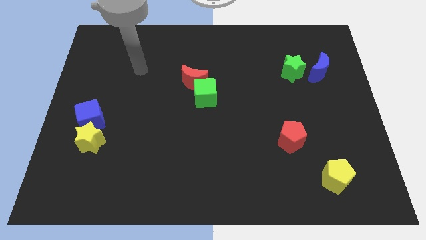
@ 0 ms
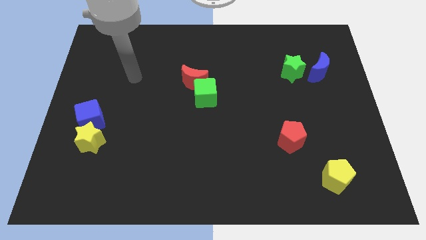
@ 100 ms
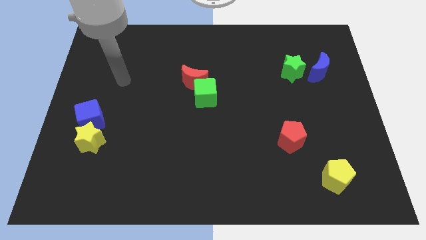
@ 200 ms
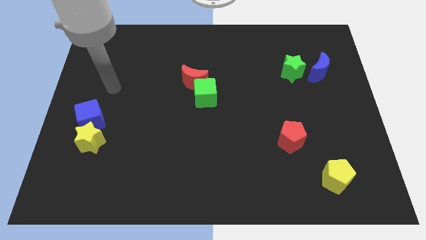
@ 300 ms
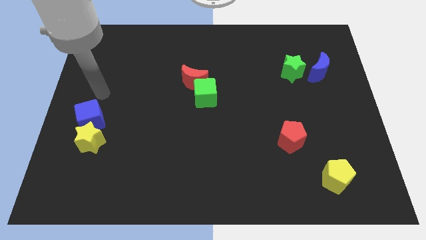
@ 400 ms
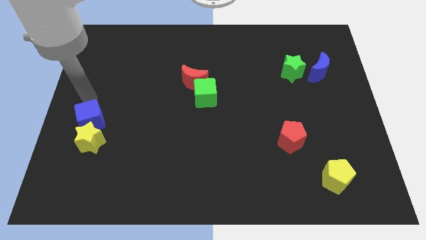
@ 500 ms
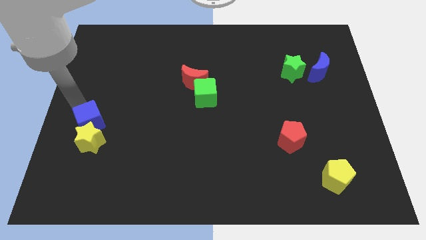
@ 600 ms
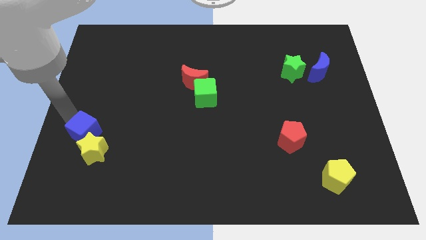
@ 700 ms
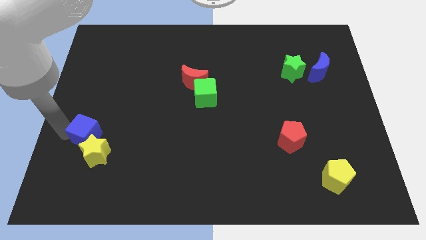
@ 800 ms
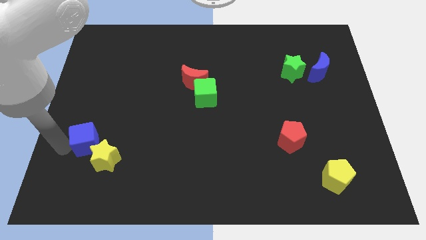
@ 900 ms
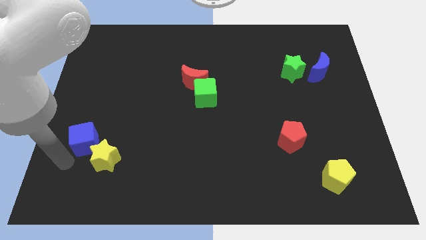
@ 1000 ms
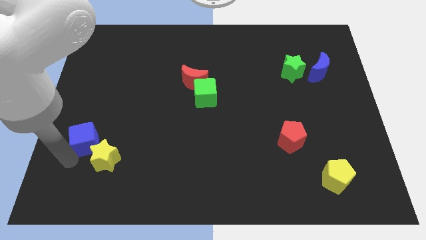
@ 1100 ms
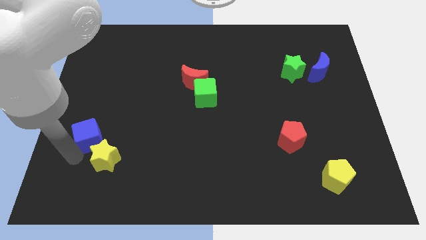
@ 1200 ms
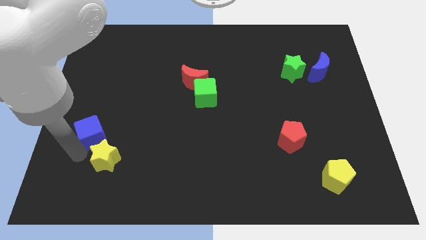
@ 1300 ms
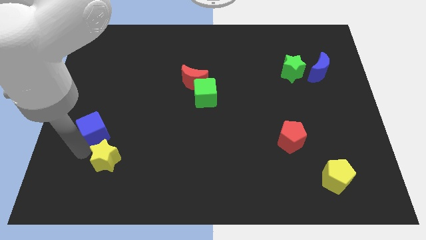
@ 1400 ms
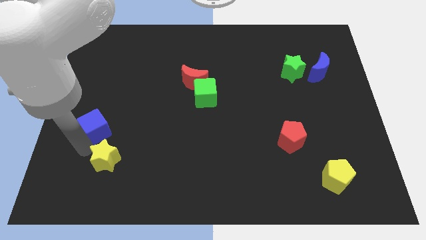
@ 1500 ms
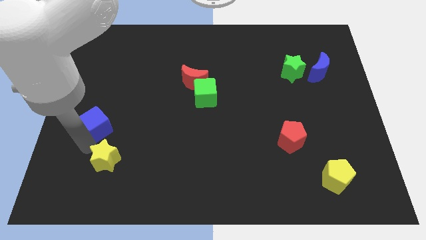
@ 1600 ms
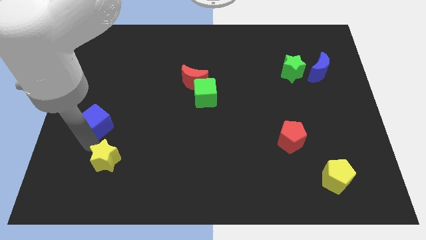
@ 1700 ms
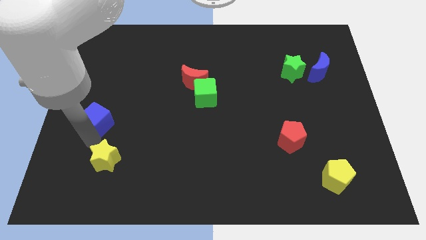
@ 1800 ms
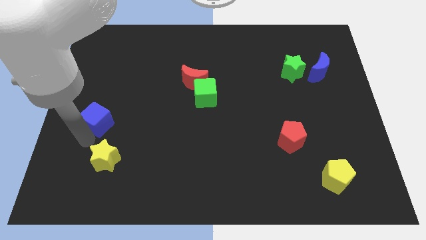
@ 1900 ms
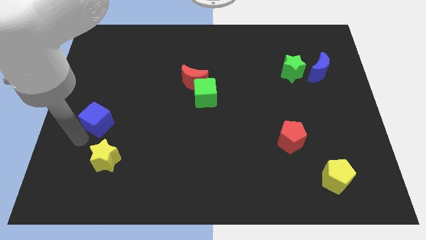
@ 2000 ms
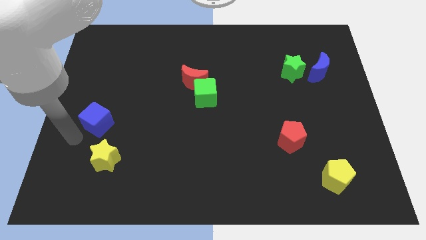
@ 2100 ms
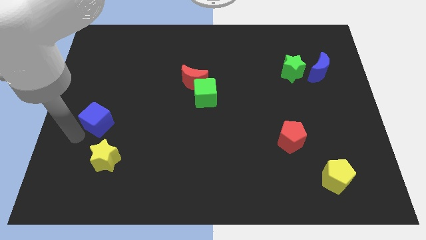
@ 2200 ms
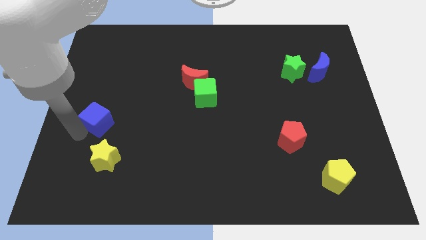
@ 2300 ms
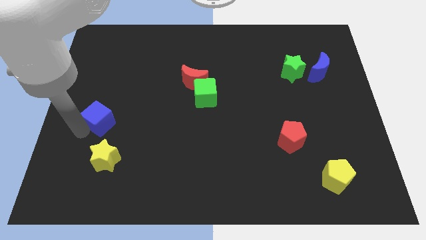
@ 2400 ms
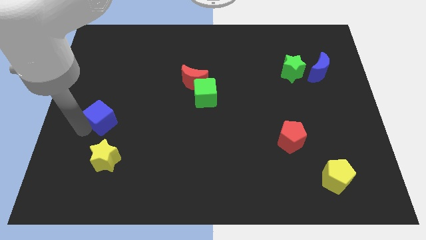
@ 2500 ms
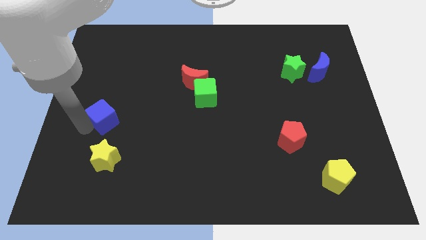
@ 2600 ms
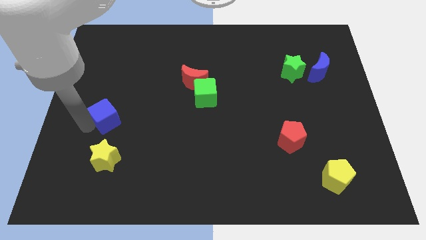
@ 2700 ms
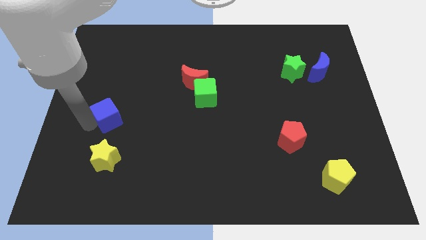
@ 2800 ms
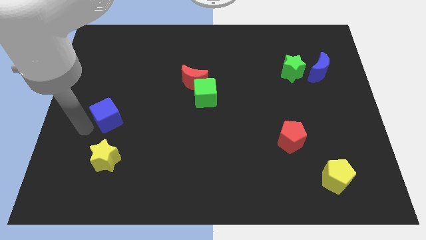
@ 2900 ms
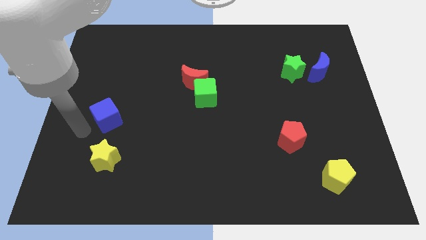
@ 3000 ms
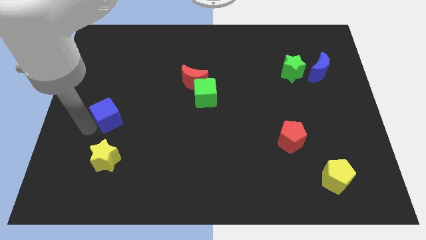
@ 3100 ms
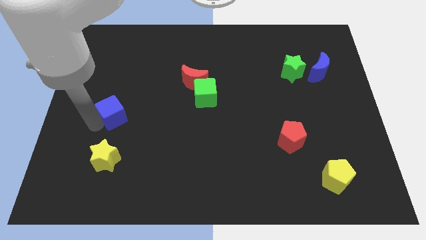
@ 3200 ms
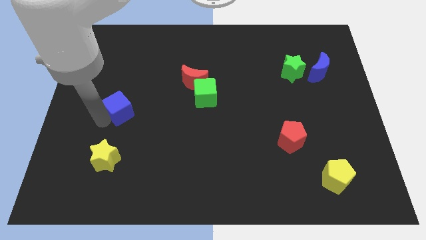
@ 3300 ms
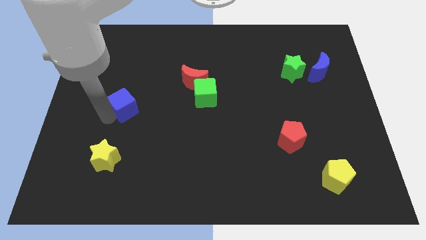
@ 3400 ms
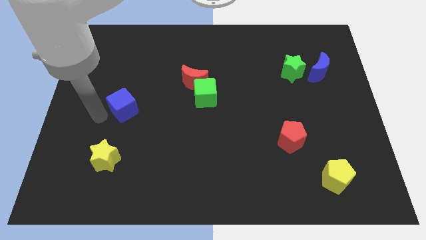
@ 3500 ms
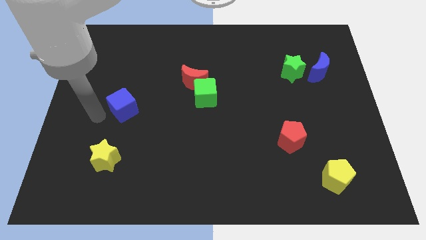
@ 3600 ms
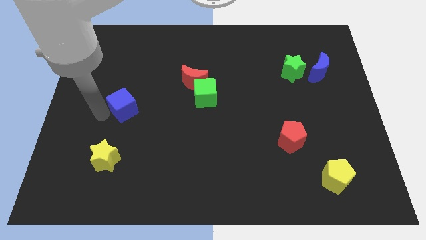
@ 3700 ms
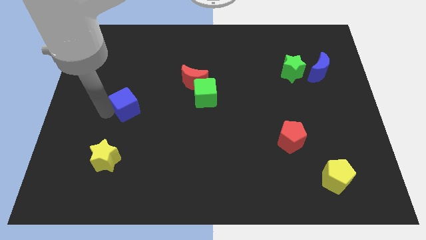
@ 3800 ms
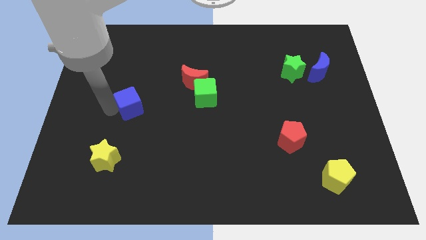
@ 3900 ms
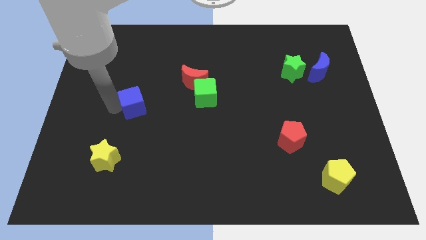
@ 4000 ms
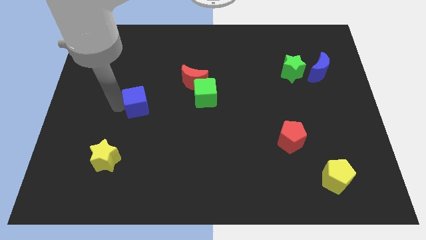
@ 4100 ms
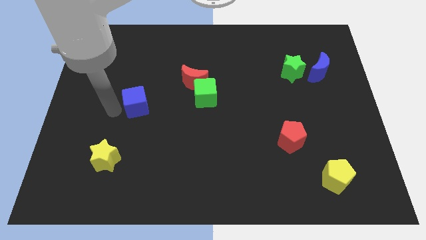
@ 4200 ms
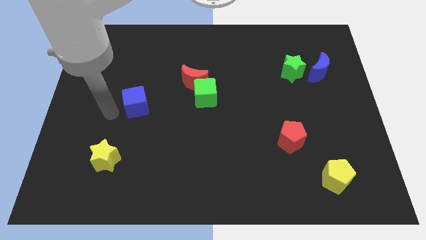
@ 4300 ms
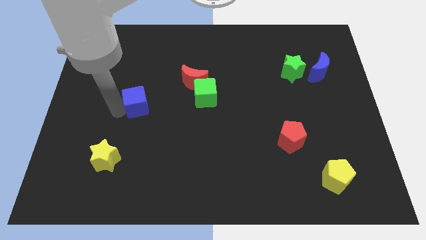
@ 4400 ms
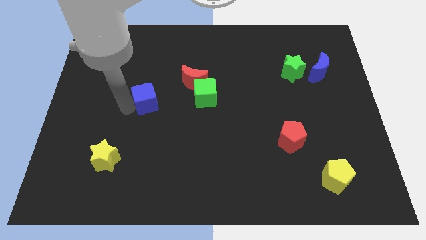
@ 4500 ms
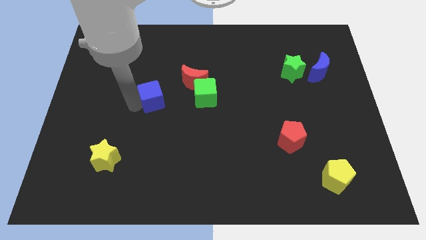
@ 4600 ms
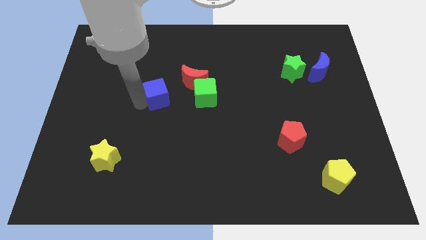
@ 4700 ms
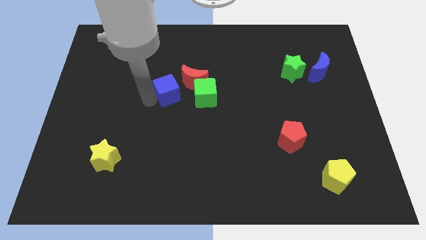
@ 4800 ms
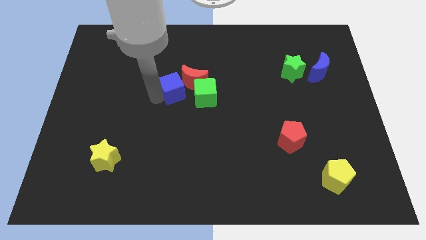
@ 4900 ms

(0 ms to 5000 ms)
move the blue cube close to the red moon

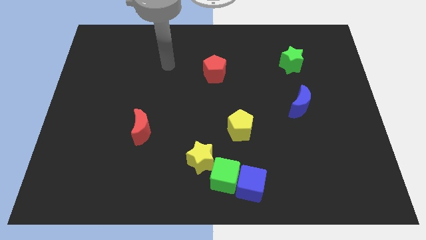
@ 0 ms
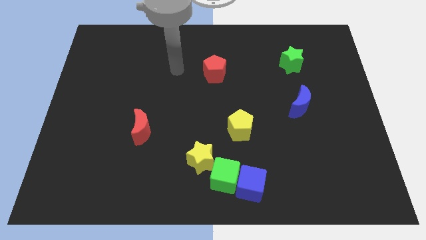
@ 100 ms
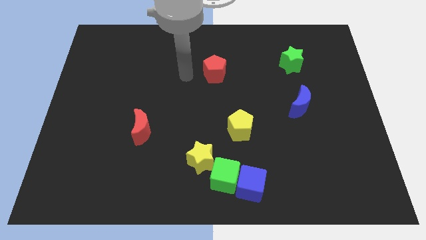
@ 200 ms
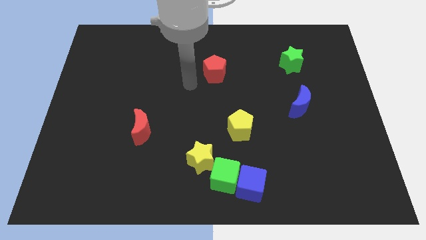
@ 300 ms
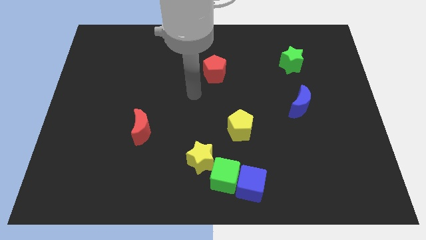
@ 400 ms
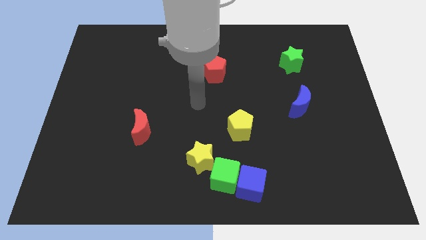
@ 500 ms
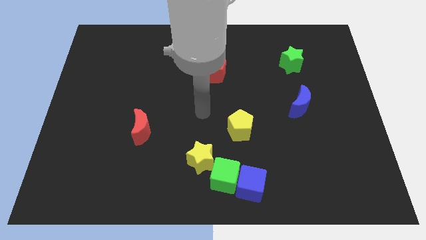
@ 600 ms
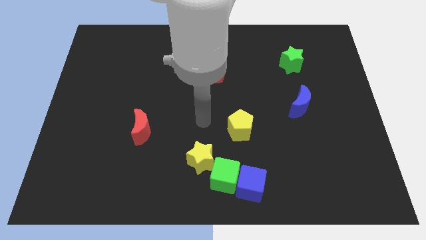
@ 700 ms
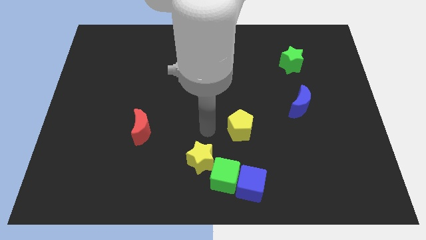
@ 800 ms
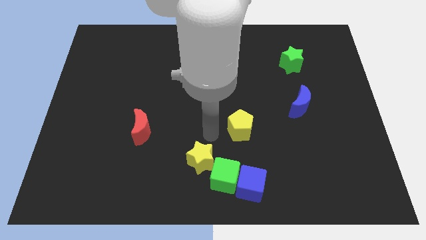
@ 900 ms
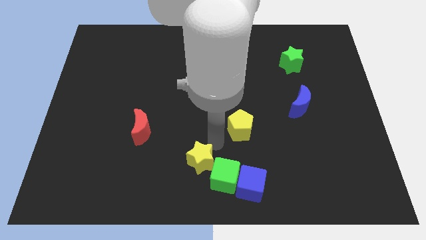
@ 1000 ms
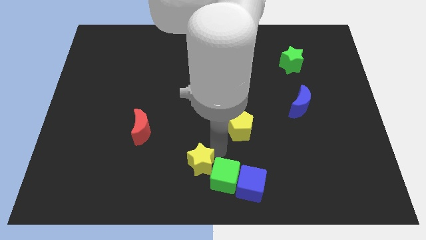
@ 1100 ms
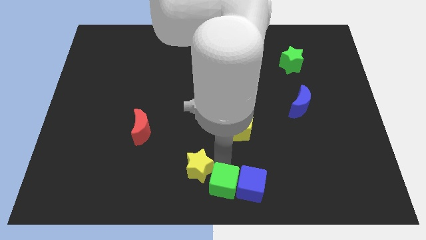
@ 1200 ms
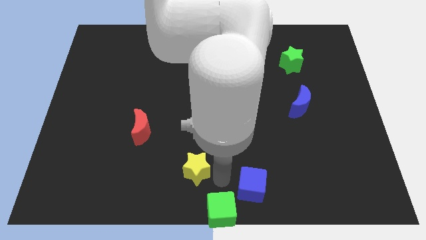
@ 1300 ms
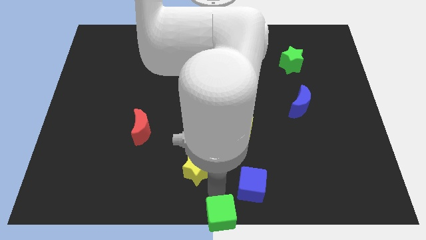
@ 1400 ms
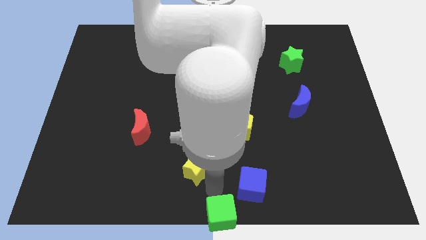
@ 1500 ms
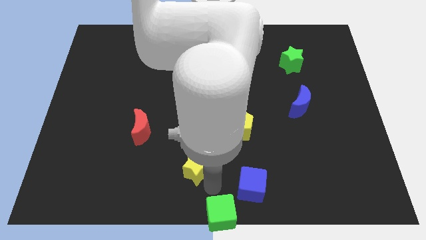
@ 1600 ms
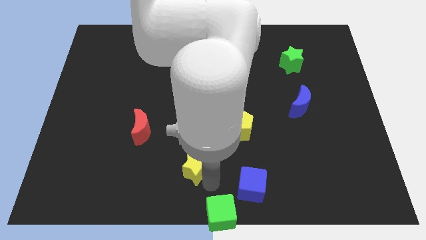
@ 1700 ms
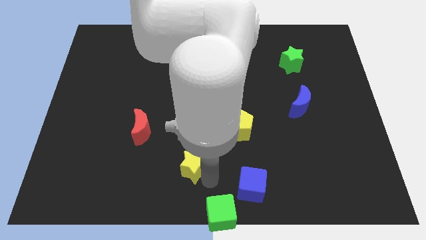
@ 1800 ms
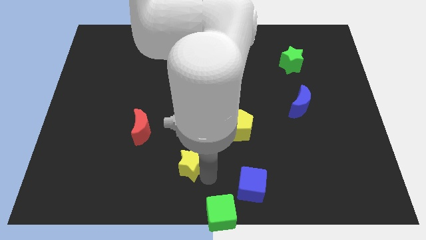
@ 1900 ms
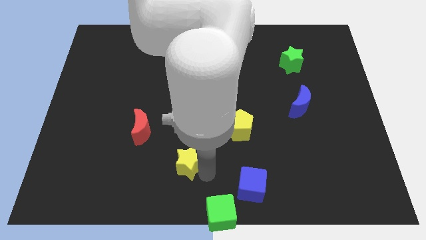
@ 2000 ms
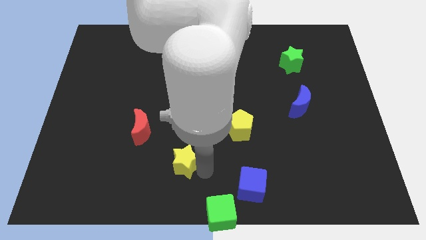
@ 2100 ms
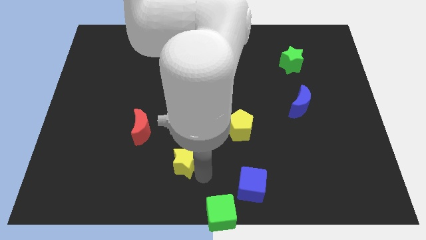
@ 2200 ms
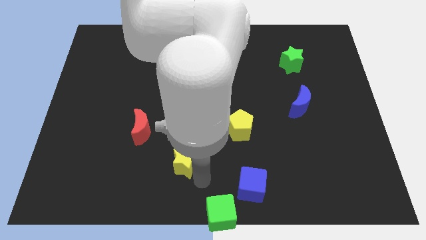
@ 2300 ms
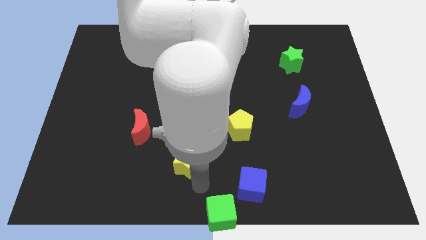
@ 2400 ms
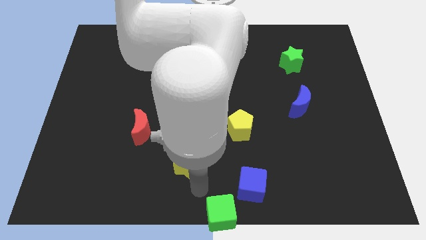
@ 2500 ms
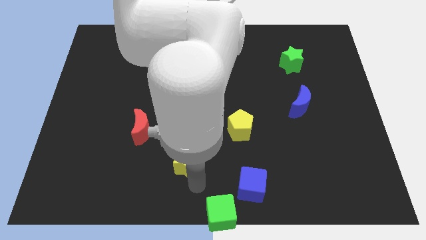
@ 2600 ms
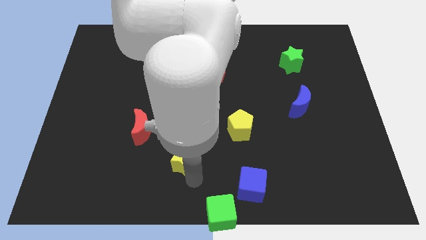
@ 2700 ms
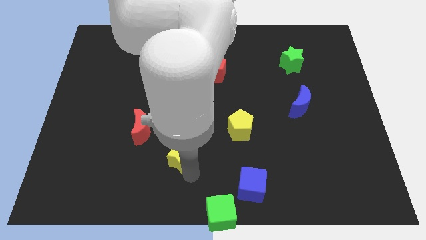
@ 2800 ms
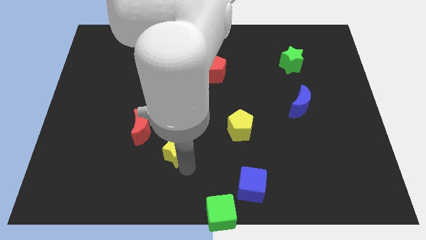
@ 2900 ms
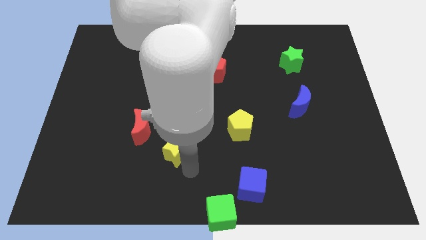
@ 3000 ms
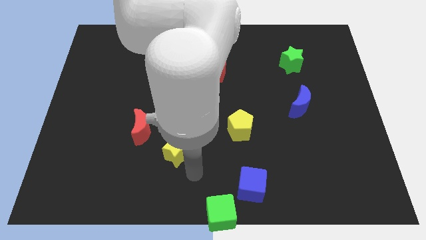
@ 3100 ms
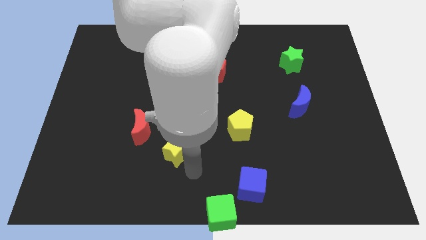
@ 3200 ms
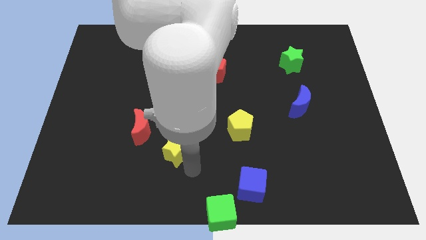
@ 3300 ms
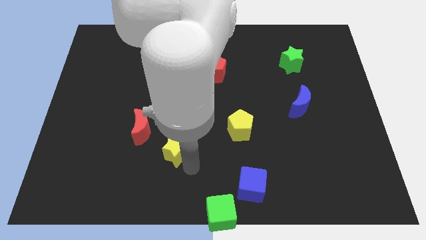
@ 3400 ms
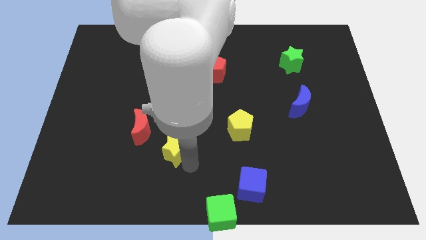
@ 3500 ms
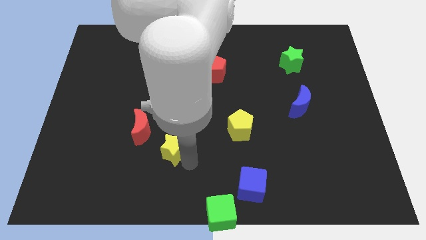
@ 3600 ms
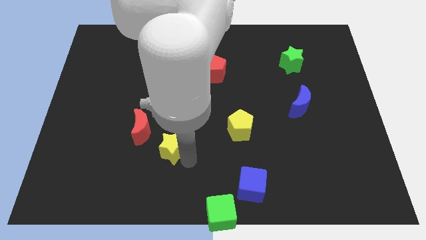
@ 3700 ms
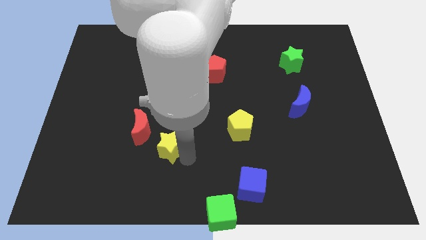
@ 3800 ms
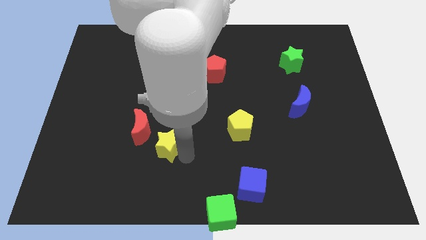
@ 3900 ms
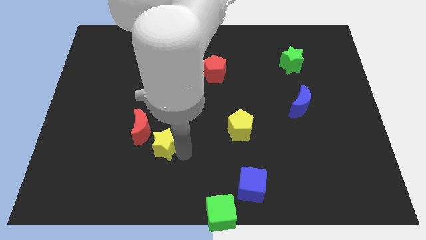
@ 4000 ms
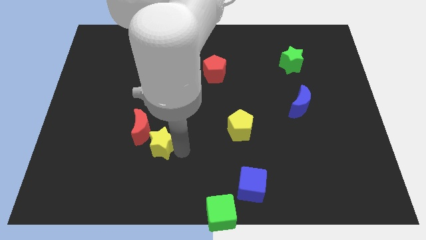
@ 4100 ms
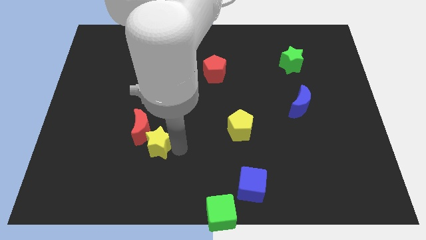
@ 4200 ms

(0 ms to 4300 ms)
move the yellow star towards the red moon
